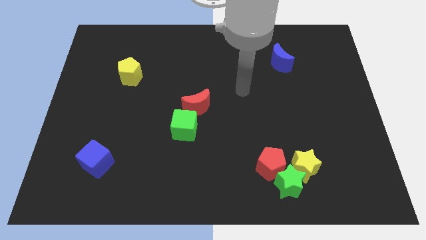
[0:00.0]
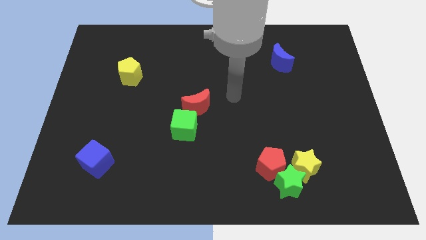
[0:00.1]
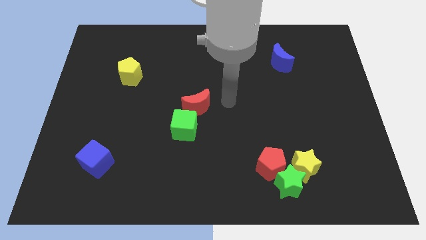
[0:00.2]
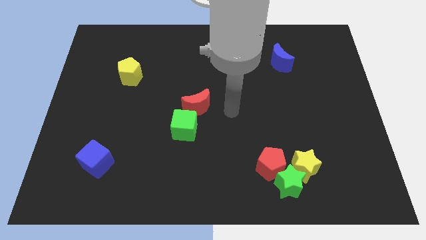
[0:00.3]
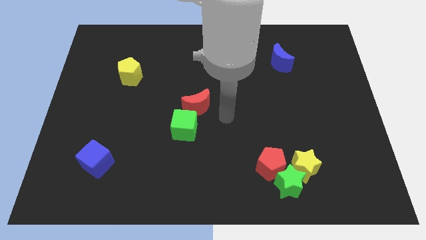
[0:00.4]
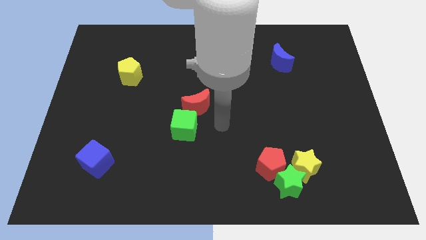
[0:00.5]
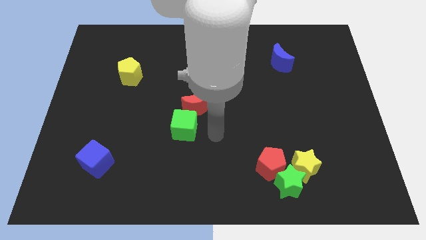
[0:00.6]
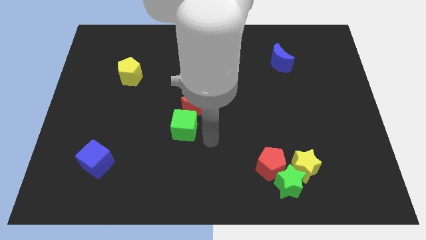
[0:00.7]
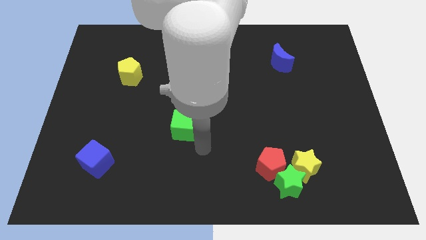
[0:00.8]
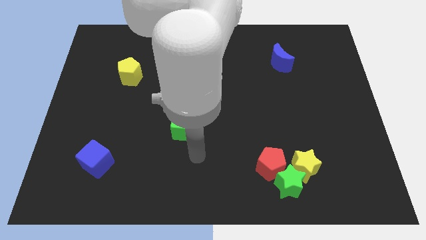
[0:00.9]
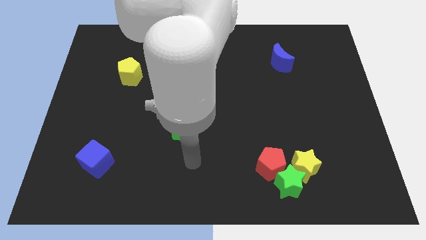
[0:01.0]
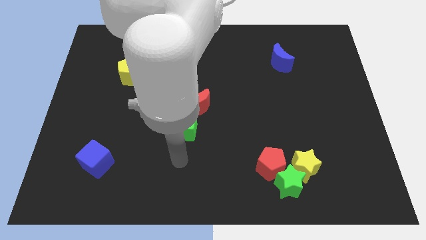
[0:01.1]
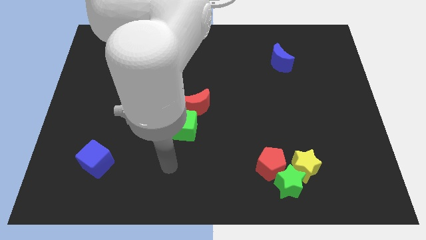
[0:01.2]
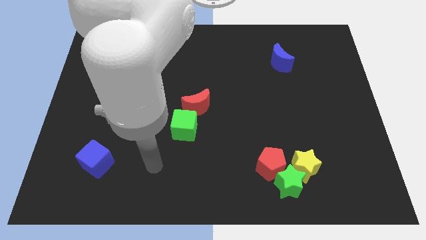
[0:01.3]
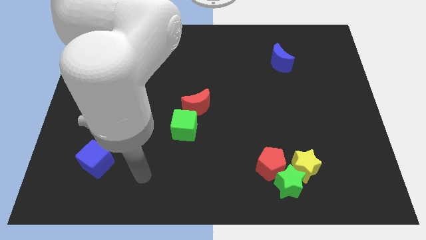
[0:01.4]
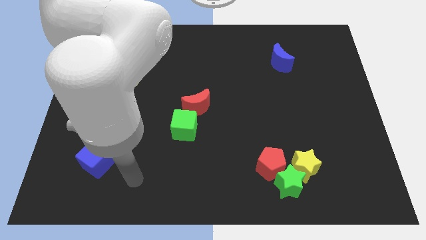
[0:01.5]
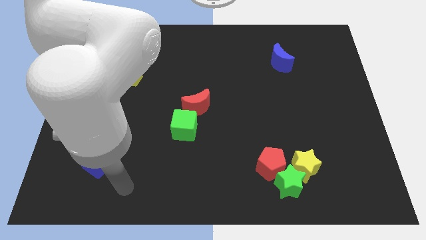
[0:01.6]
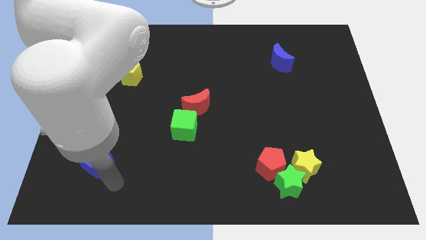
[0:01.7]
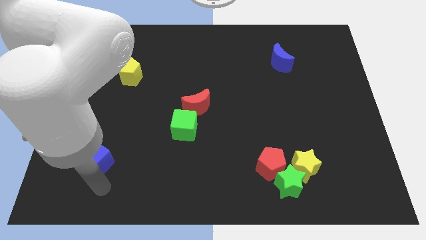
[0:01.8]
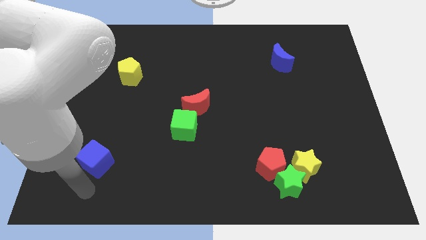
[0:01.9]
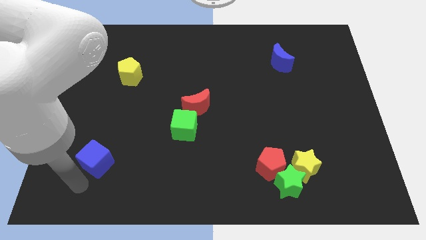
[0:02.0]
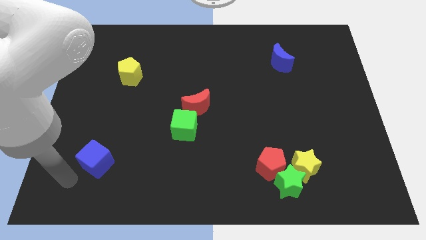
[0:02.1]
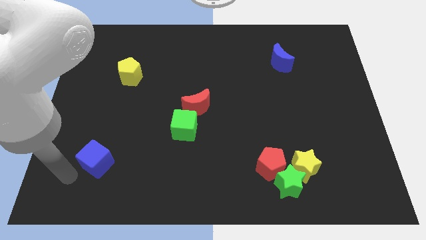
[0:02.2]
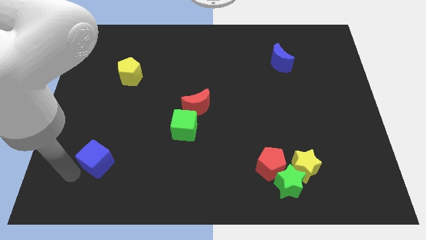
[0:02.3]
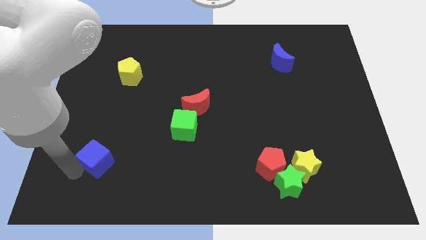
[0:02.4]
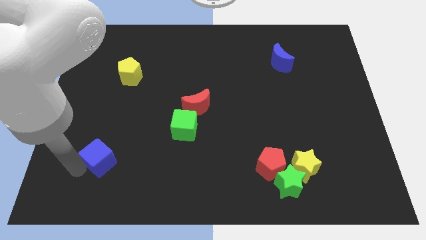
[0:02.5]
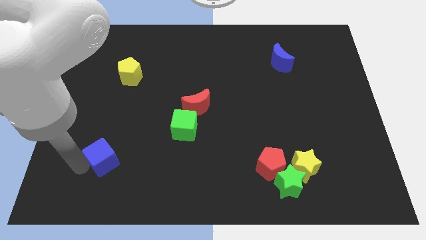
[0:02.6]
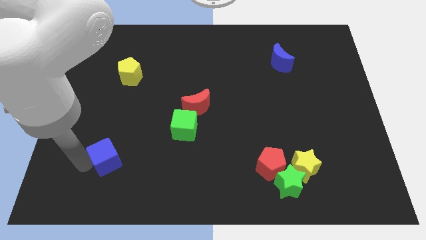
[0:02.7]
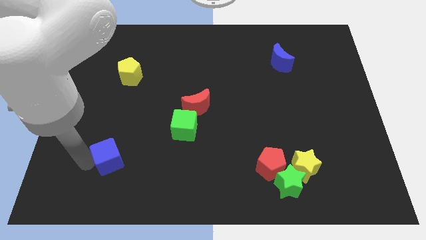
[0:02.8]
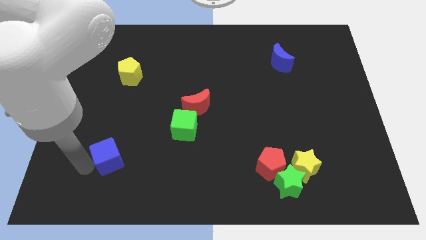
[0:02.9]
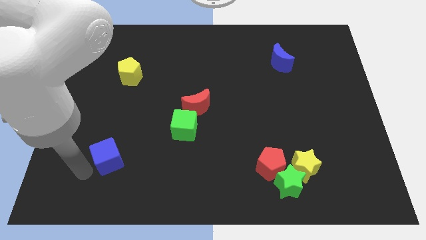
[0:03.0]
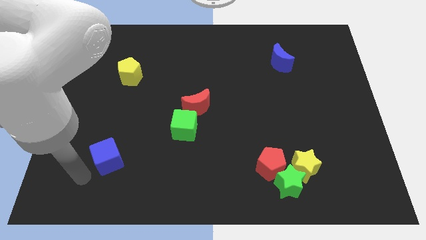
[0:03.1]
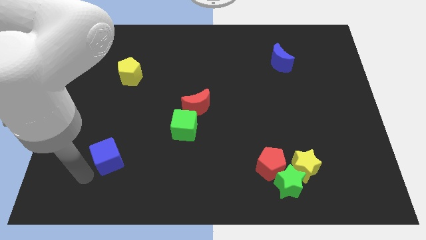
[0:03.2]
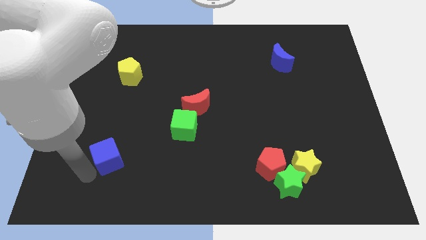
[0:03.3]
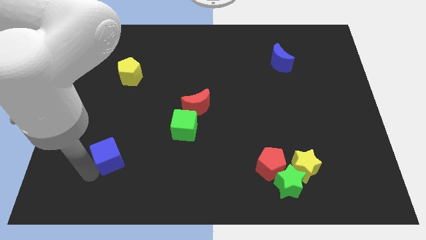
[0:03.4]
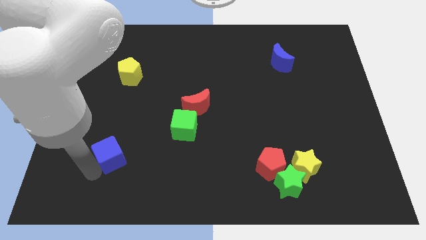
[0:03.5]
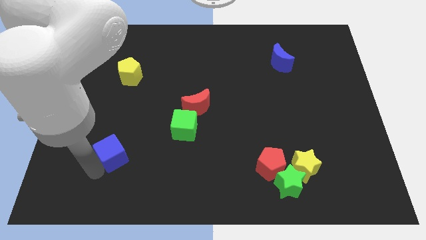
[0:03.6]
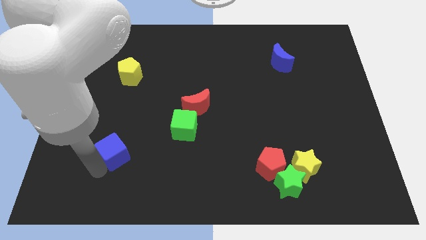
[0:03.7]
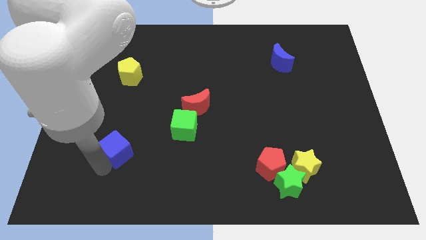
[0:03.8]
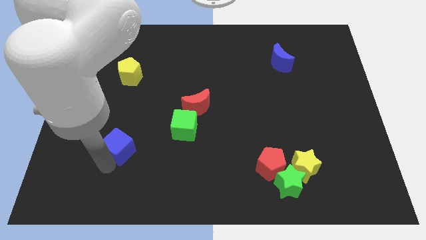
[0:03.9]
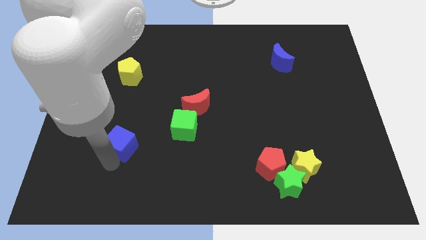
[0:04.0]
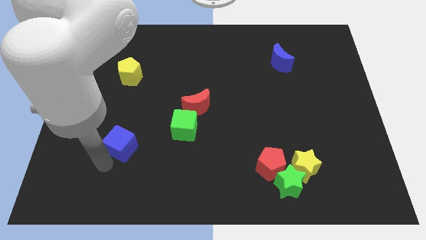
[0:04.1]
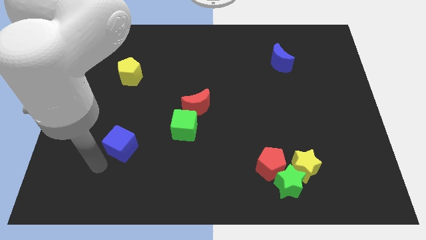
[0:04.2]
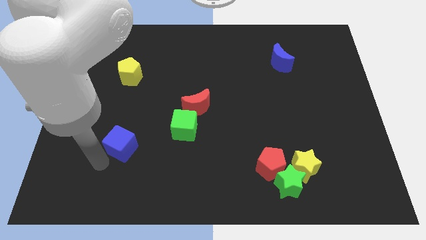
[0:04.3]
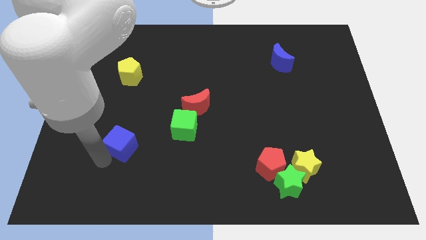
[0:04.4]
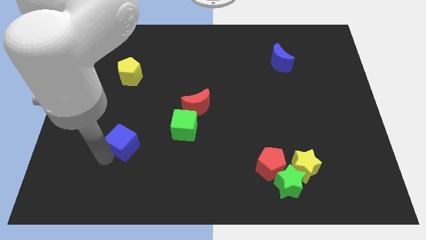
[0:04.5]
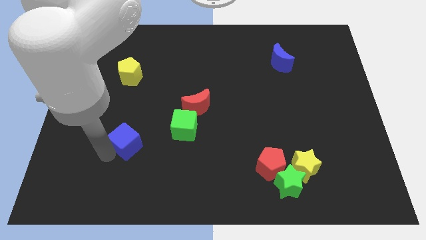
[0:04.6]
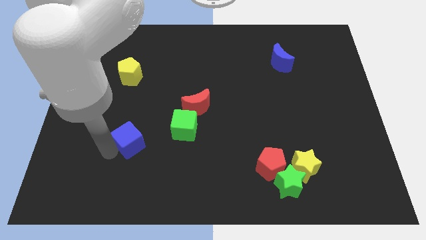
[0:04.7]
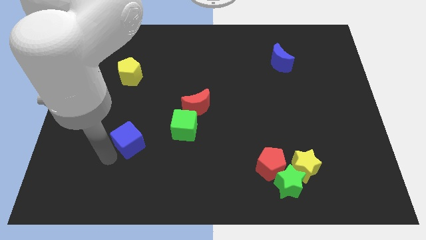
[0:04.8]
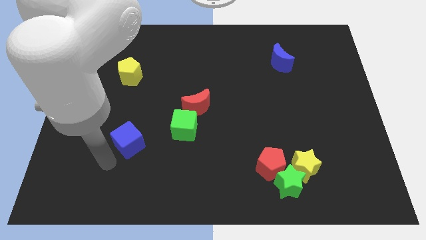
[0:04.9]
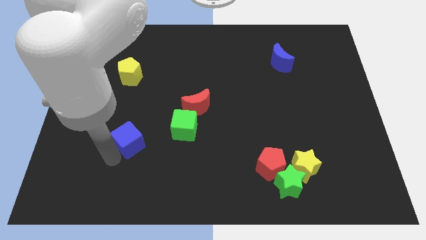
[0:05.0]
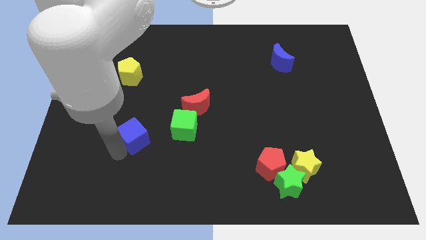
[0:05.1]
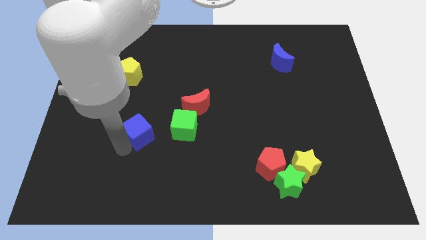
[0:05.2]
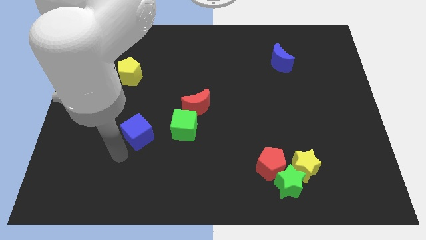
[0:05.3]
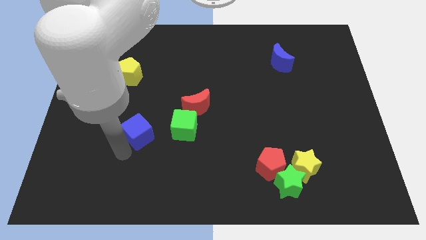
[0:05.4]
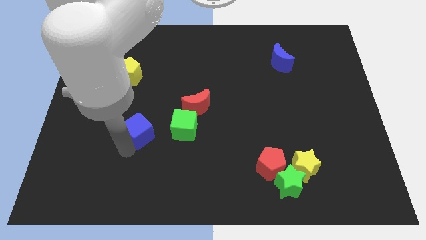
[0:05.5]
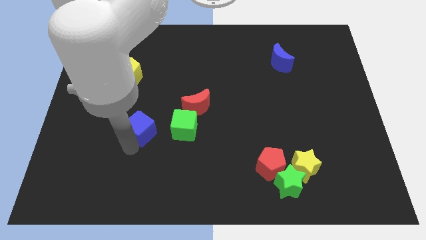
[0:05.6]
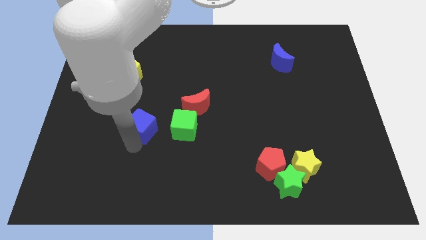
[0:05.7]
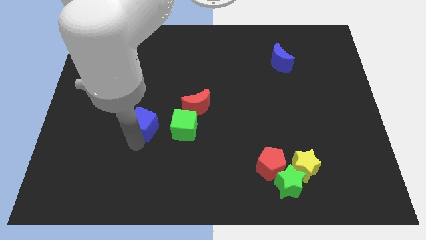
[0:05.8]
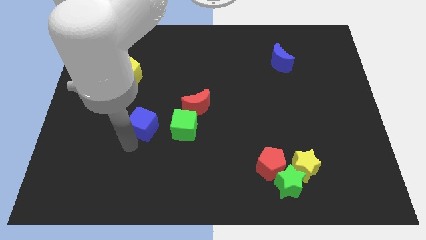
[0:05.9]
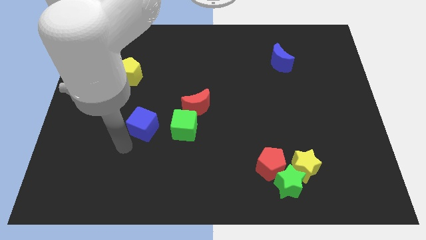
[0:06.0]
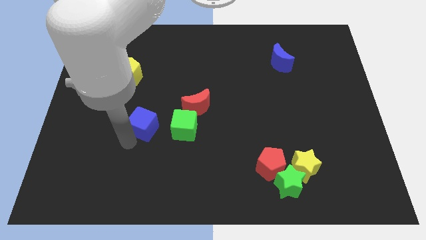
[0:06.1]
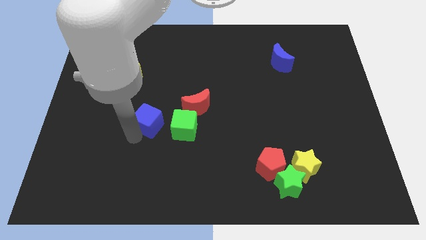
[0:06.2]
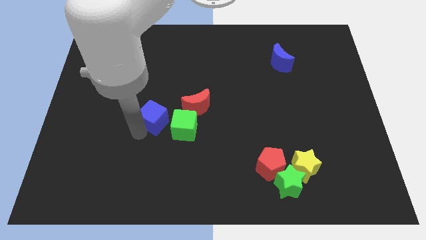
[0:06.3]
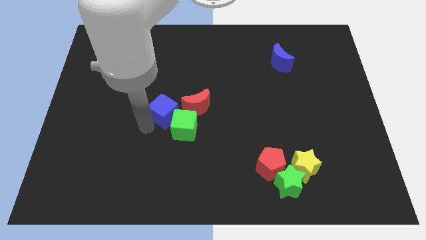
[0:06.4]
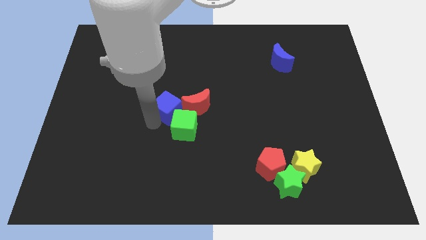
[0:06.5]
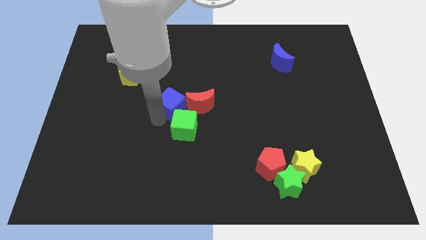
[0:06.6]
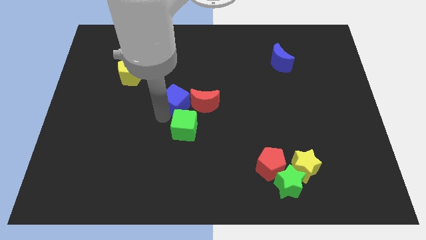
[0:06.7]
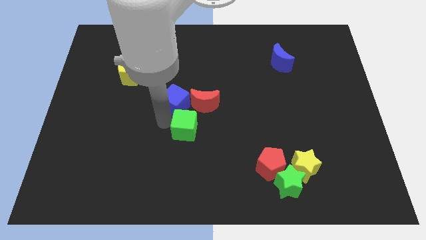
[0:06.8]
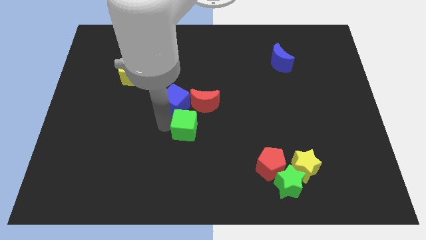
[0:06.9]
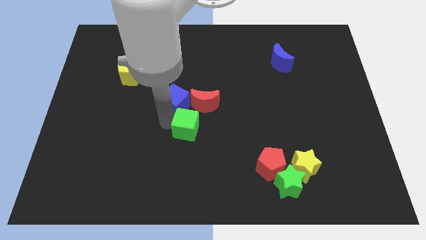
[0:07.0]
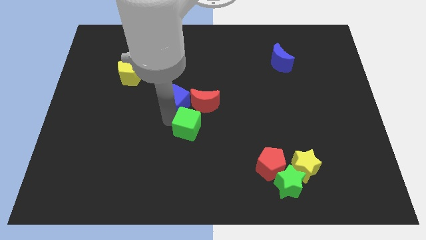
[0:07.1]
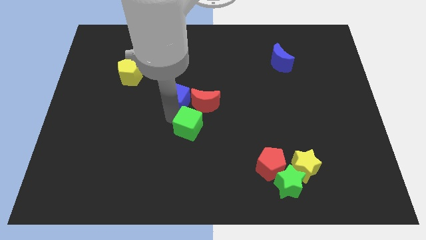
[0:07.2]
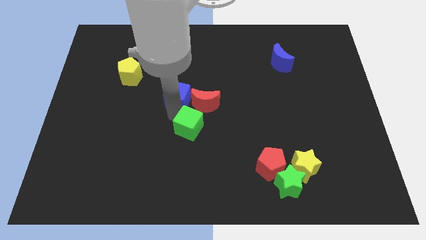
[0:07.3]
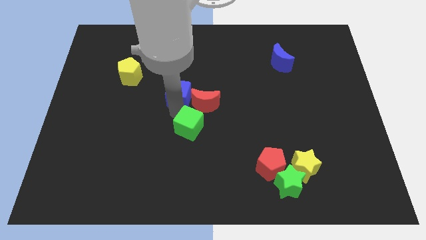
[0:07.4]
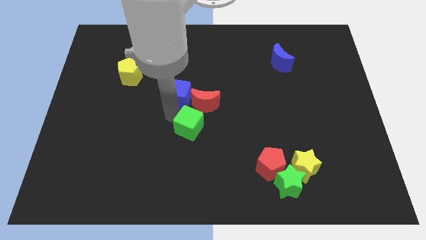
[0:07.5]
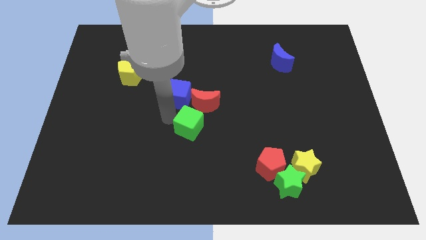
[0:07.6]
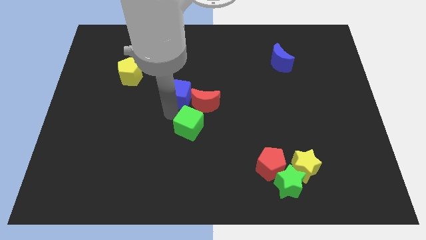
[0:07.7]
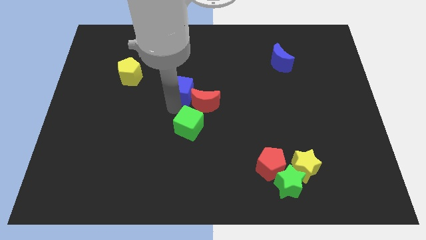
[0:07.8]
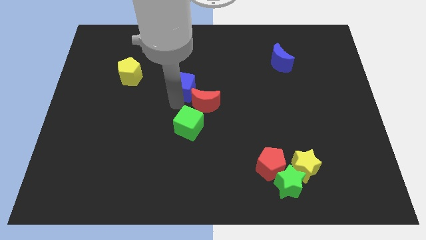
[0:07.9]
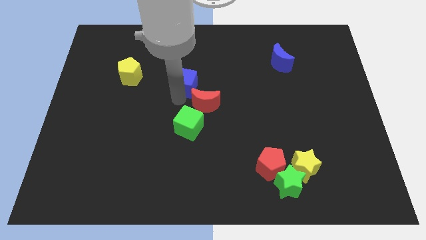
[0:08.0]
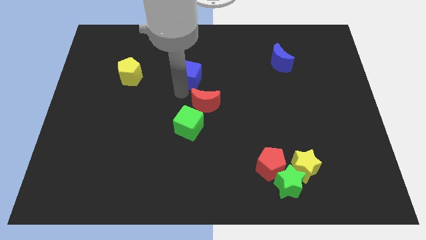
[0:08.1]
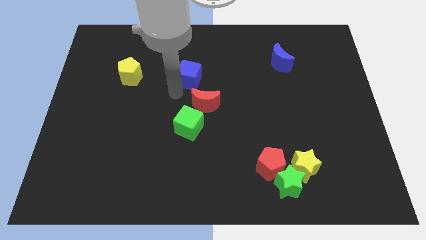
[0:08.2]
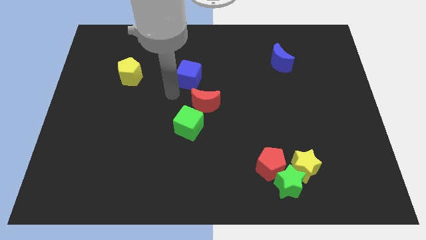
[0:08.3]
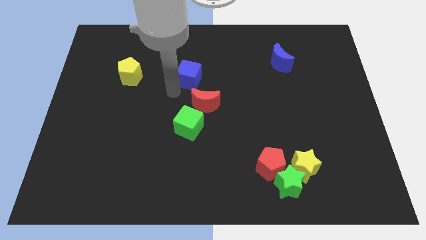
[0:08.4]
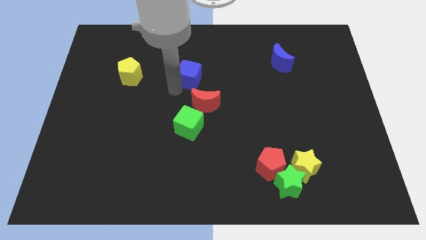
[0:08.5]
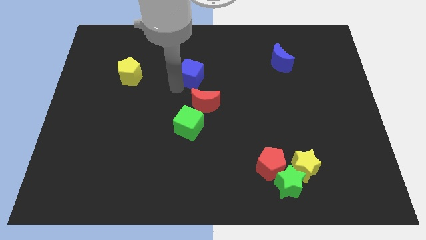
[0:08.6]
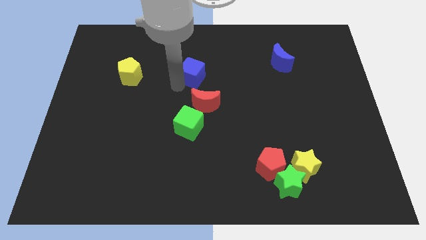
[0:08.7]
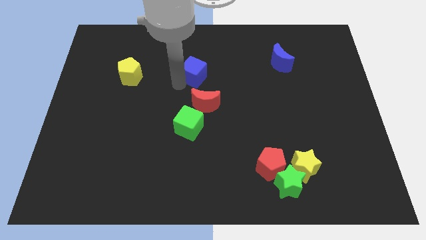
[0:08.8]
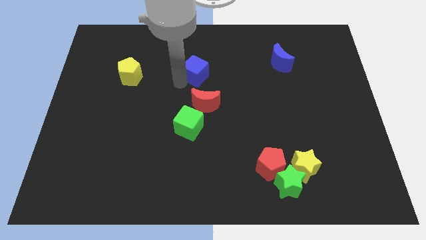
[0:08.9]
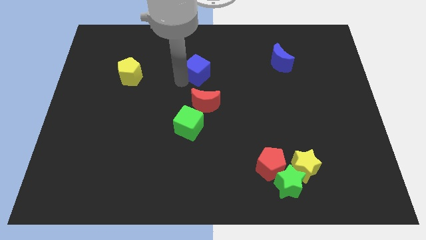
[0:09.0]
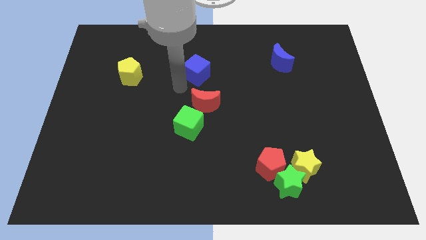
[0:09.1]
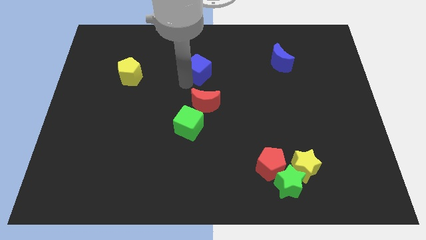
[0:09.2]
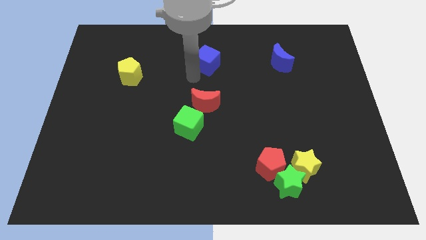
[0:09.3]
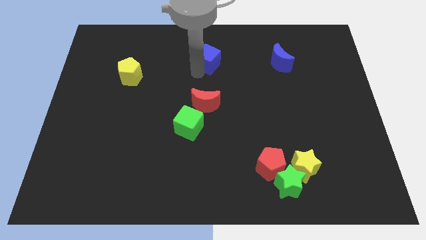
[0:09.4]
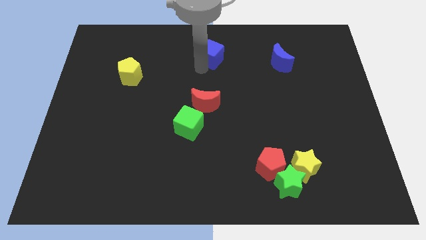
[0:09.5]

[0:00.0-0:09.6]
push the blue cube to the towards your base
